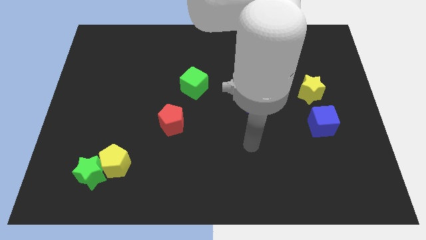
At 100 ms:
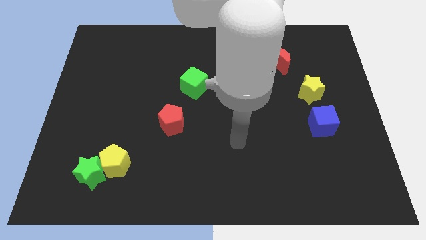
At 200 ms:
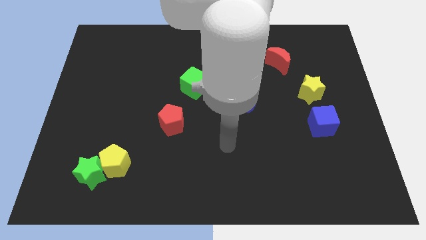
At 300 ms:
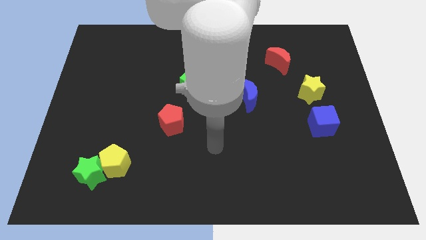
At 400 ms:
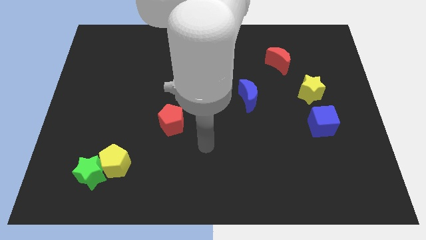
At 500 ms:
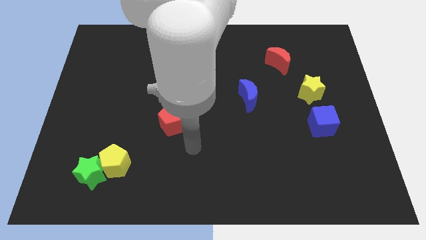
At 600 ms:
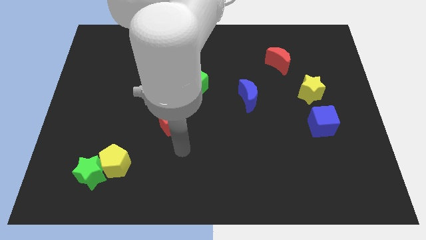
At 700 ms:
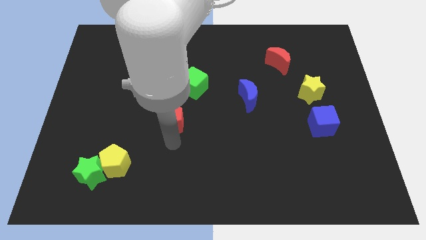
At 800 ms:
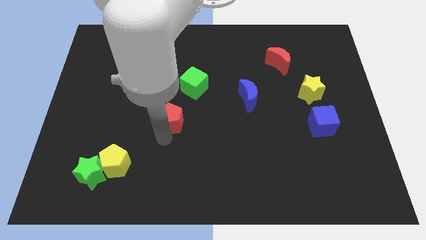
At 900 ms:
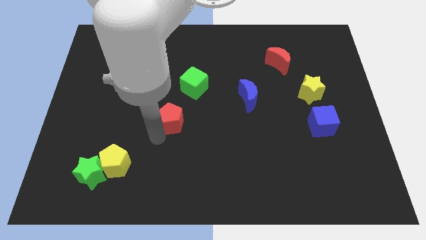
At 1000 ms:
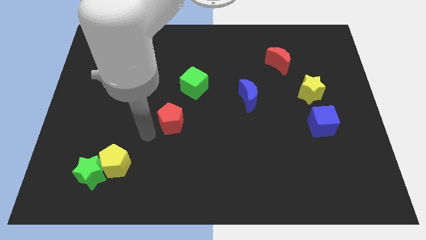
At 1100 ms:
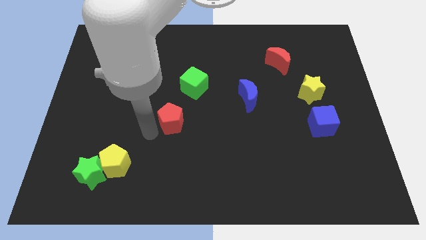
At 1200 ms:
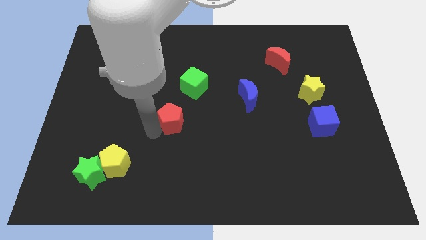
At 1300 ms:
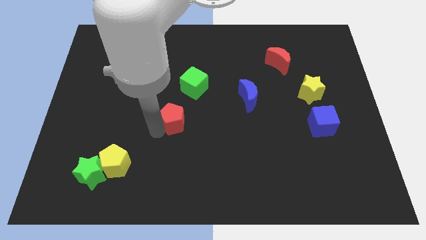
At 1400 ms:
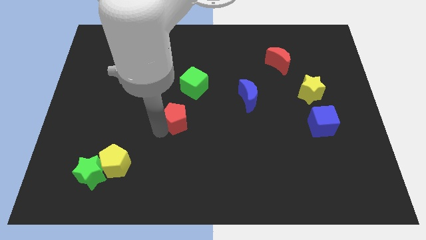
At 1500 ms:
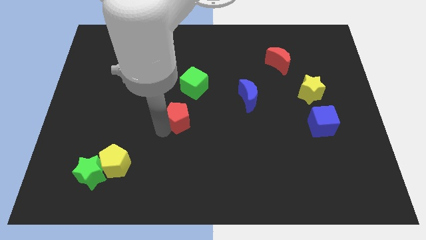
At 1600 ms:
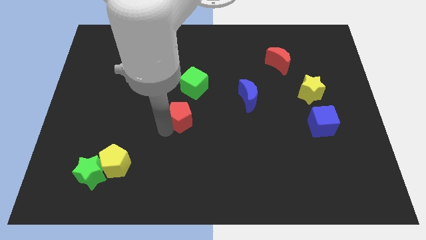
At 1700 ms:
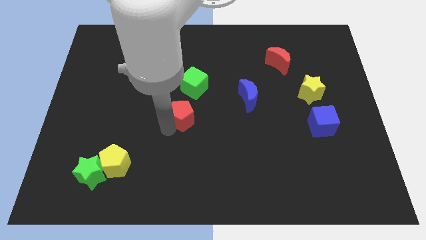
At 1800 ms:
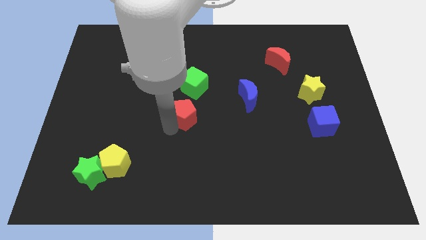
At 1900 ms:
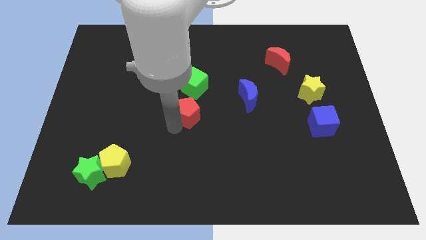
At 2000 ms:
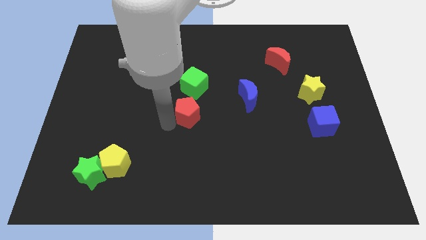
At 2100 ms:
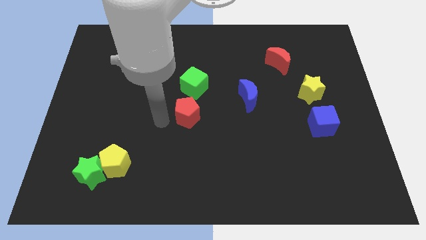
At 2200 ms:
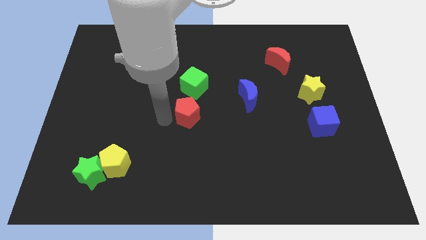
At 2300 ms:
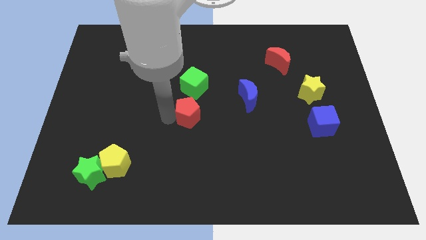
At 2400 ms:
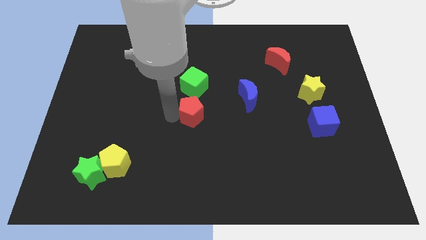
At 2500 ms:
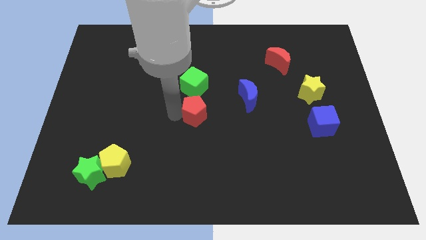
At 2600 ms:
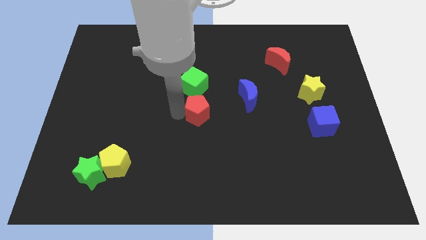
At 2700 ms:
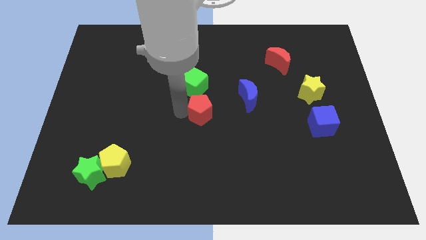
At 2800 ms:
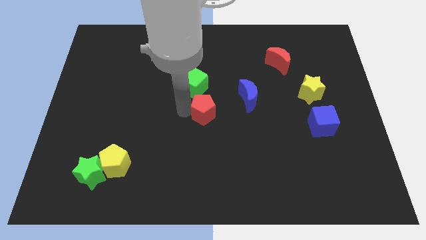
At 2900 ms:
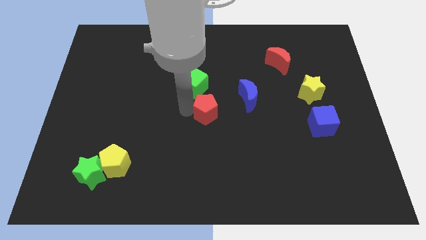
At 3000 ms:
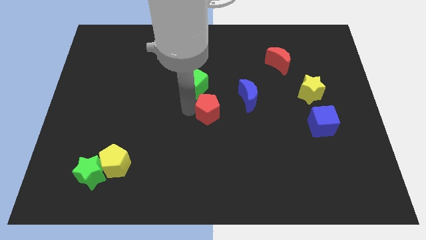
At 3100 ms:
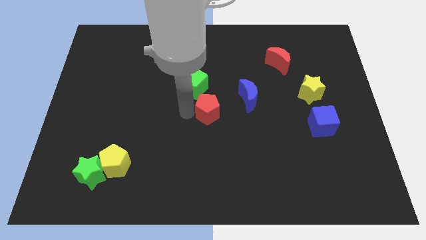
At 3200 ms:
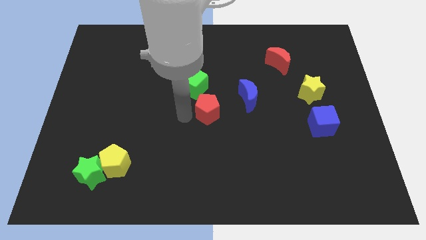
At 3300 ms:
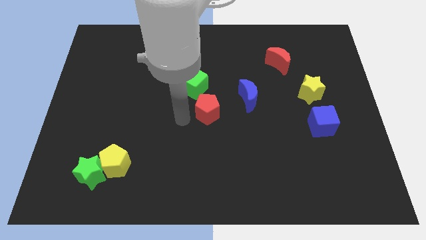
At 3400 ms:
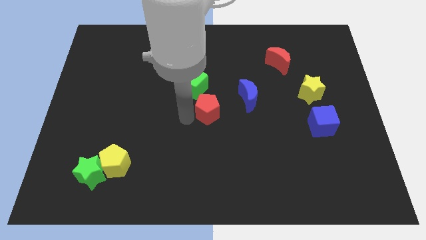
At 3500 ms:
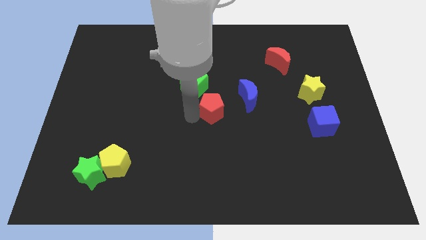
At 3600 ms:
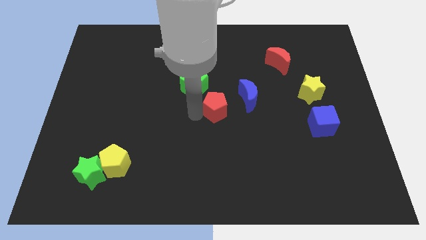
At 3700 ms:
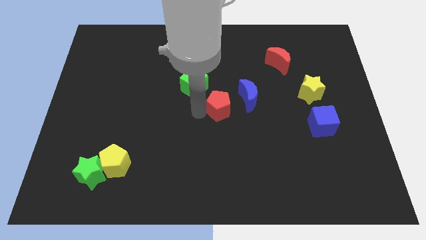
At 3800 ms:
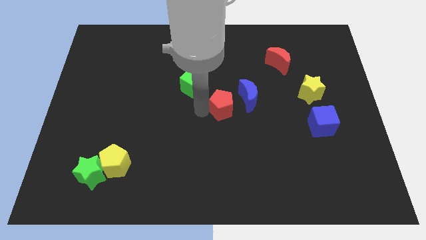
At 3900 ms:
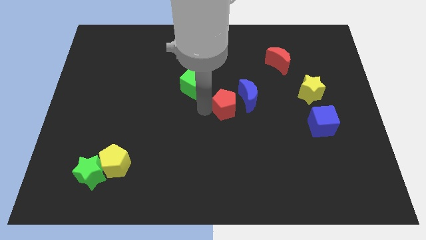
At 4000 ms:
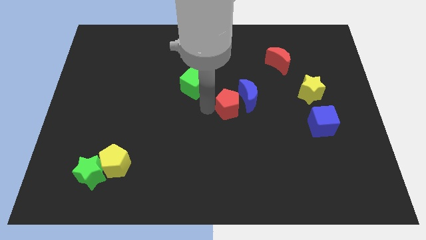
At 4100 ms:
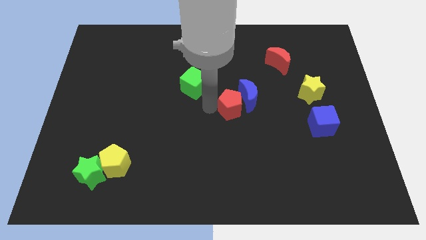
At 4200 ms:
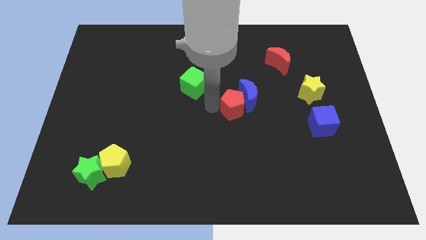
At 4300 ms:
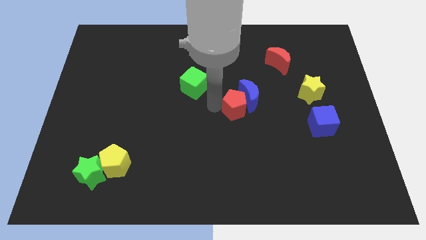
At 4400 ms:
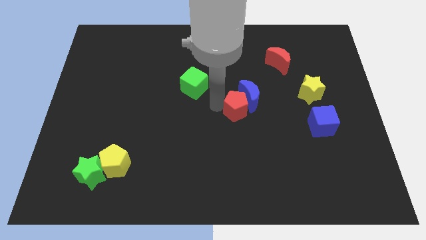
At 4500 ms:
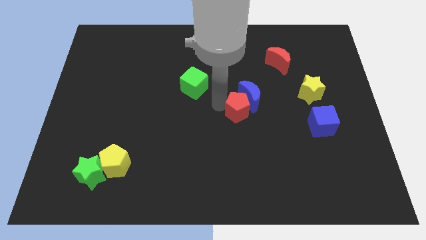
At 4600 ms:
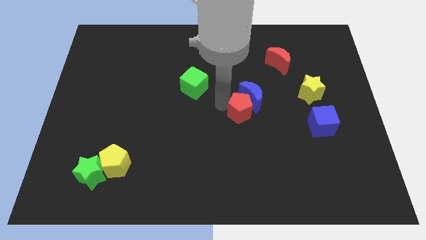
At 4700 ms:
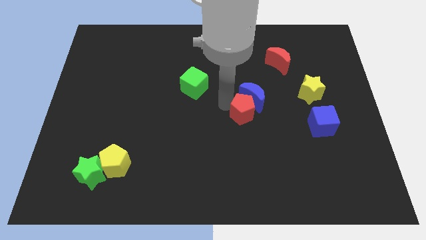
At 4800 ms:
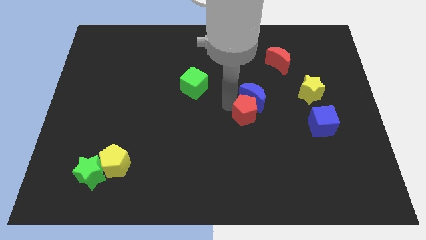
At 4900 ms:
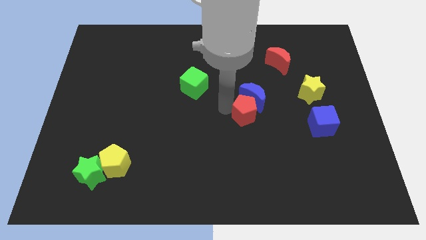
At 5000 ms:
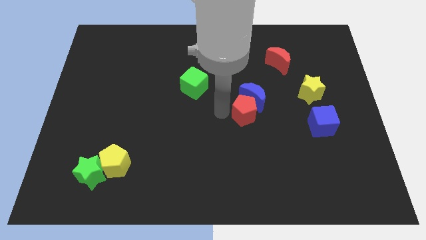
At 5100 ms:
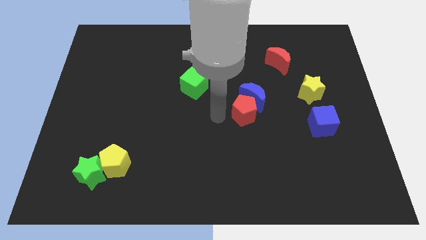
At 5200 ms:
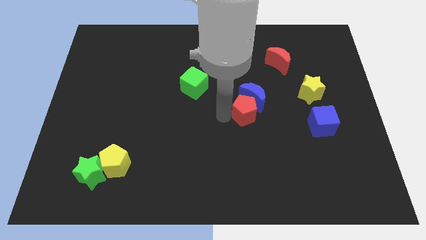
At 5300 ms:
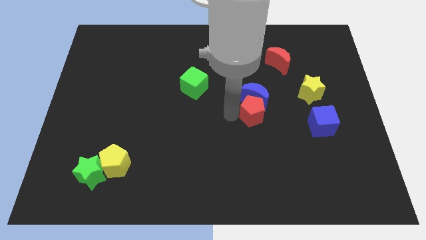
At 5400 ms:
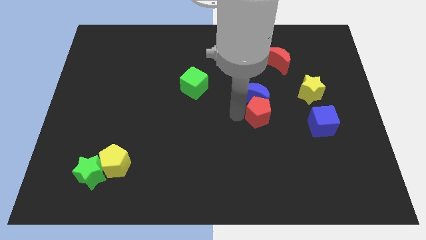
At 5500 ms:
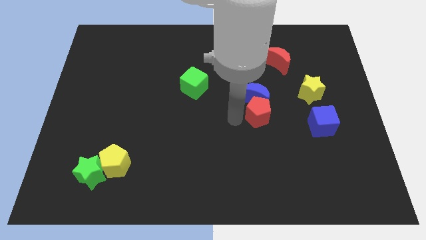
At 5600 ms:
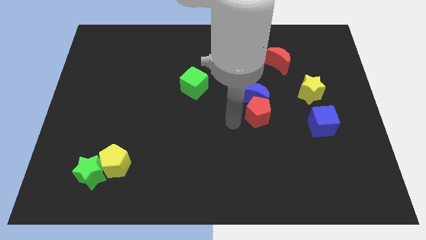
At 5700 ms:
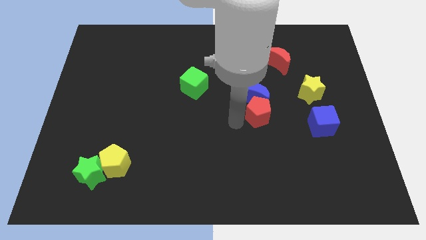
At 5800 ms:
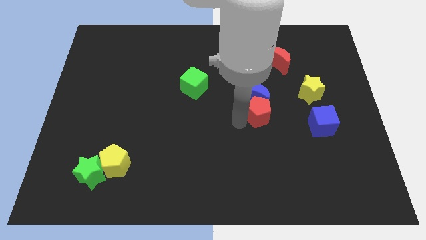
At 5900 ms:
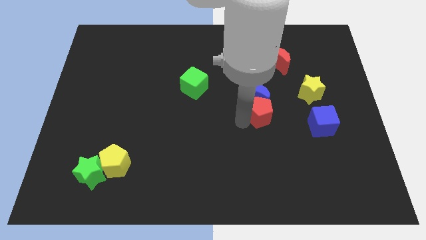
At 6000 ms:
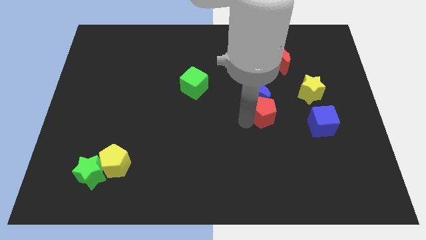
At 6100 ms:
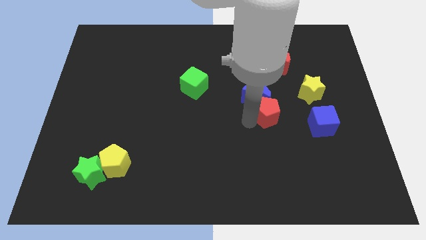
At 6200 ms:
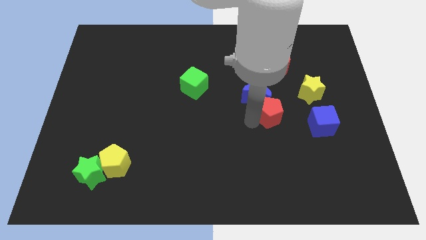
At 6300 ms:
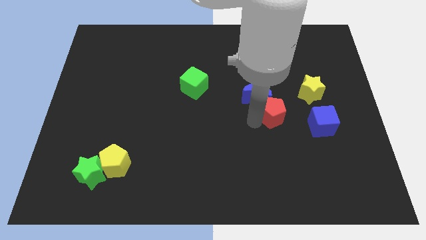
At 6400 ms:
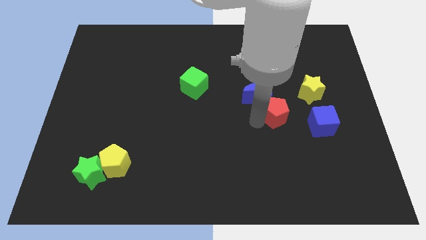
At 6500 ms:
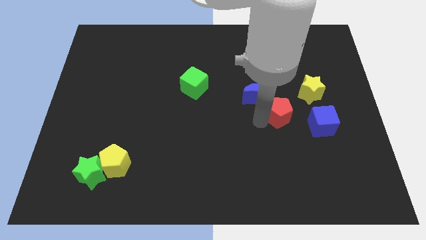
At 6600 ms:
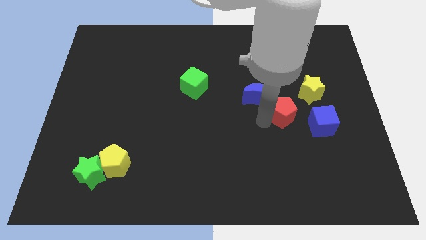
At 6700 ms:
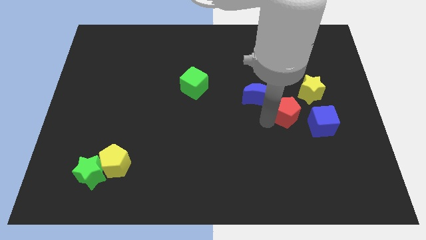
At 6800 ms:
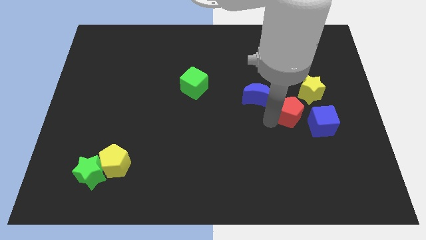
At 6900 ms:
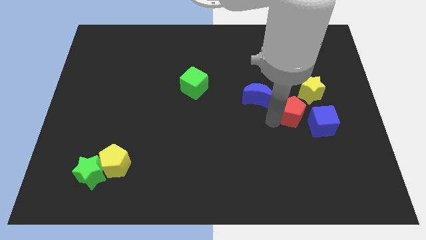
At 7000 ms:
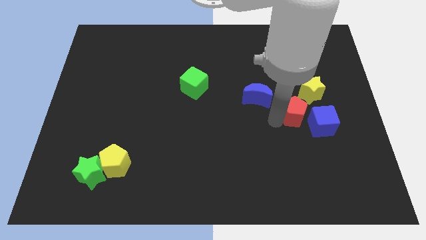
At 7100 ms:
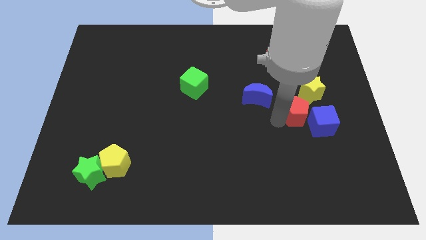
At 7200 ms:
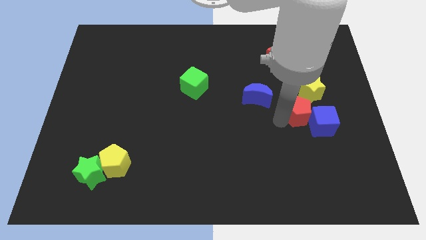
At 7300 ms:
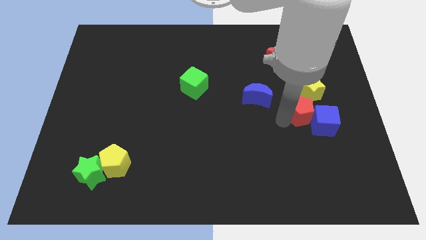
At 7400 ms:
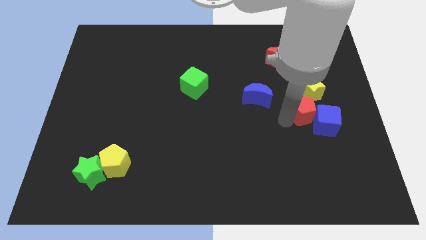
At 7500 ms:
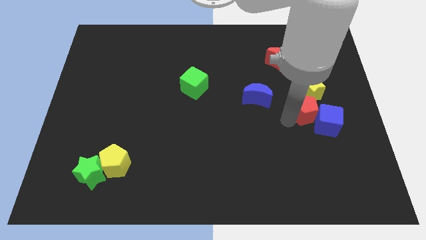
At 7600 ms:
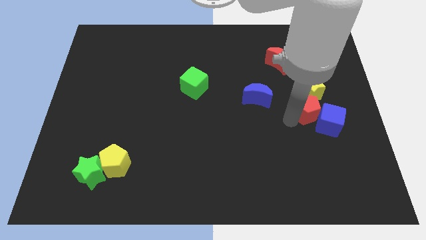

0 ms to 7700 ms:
slide the red pentagon close to the yellow star
